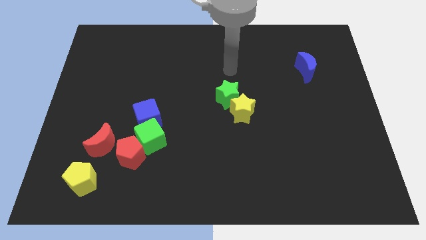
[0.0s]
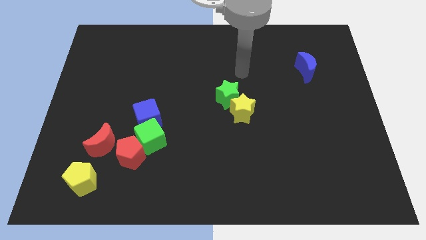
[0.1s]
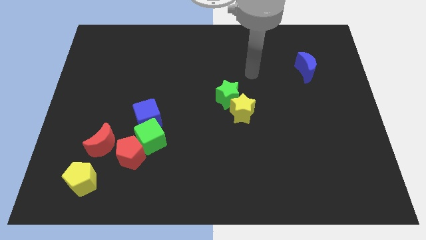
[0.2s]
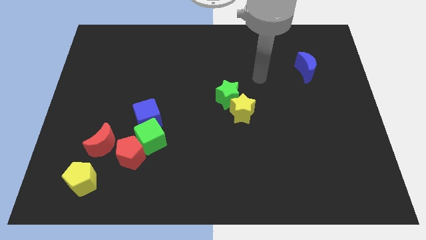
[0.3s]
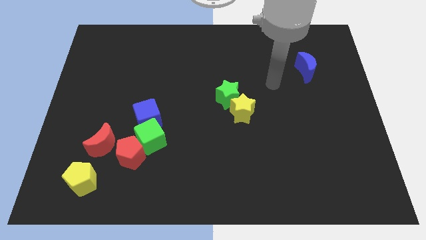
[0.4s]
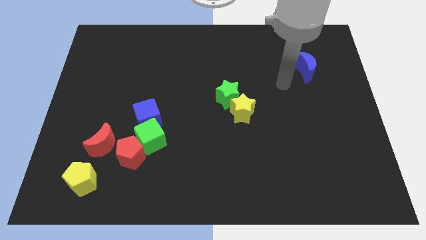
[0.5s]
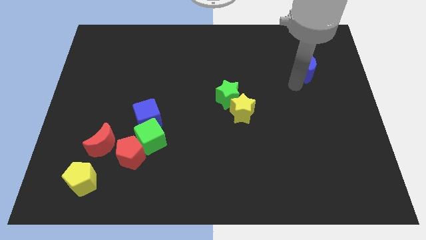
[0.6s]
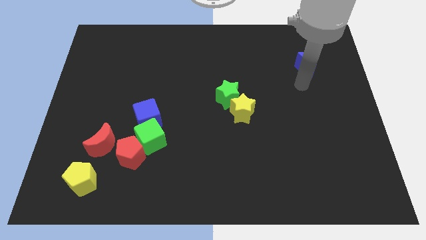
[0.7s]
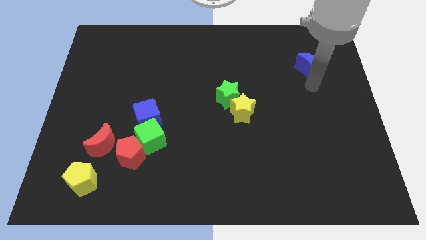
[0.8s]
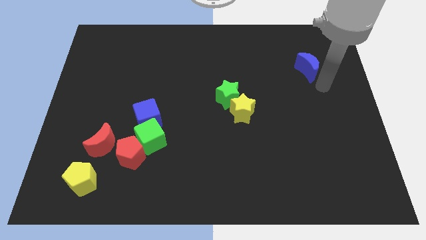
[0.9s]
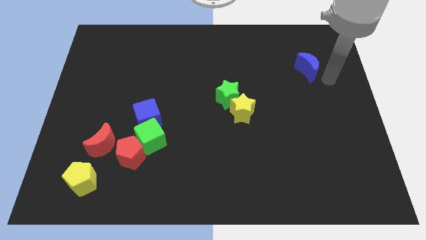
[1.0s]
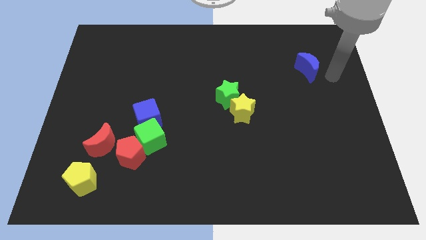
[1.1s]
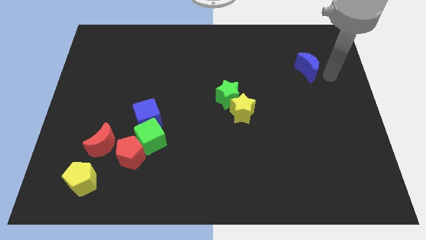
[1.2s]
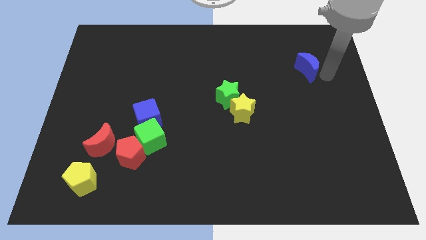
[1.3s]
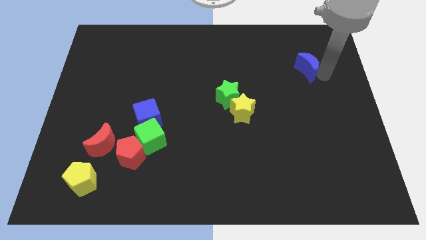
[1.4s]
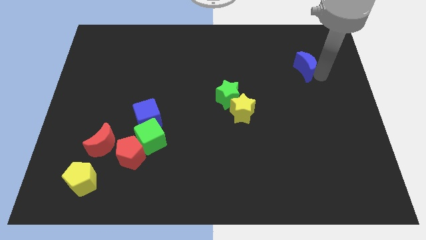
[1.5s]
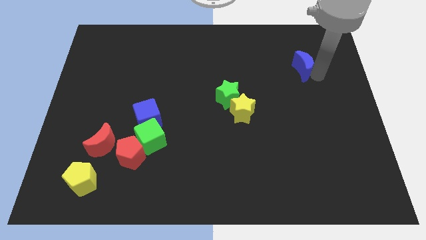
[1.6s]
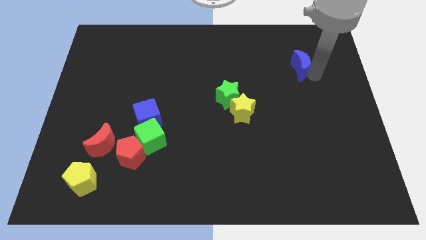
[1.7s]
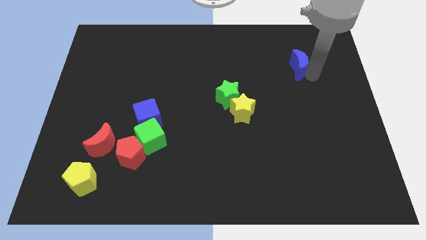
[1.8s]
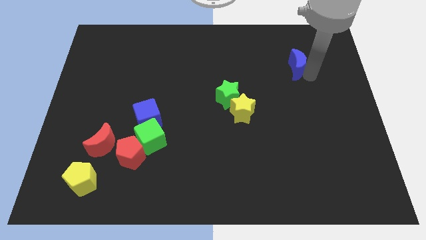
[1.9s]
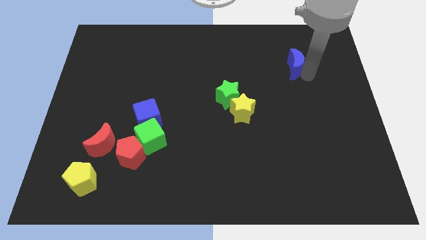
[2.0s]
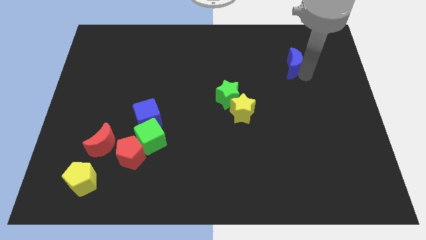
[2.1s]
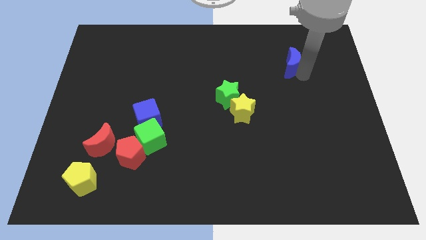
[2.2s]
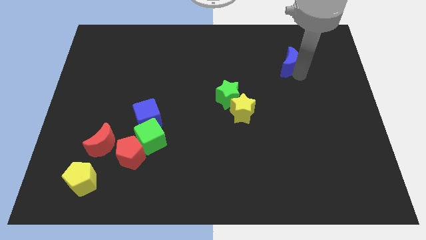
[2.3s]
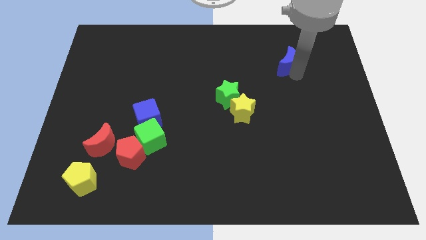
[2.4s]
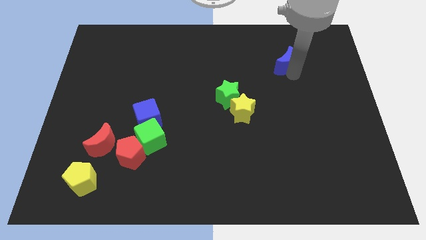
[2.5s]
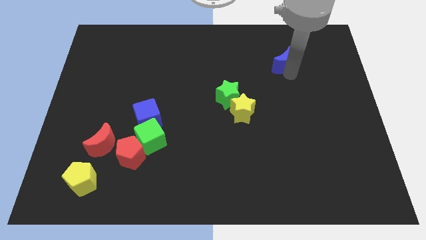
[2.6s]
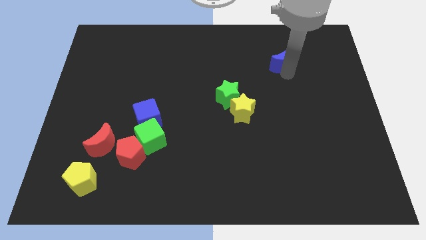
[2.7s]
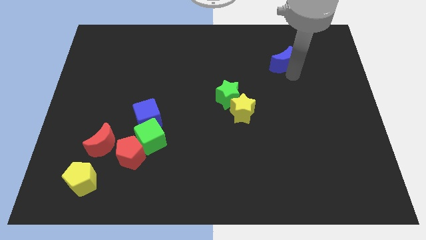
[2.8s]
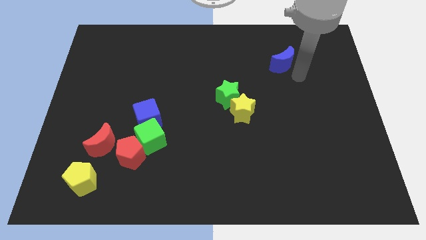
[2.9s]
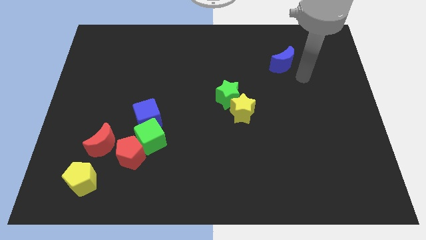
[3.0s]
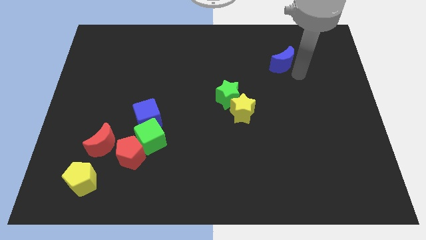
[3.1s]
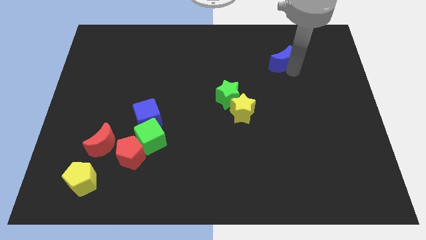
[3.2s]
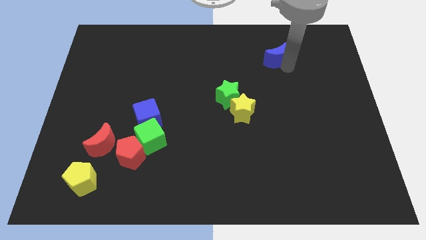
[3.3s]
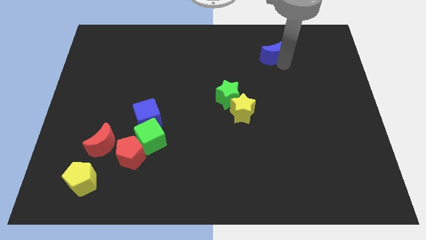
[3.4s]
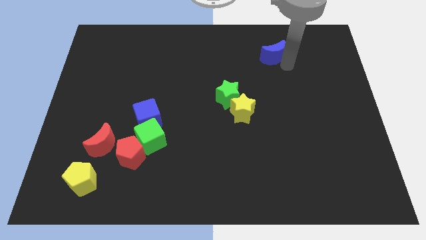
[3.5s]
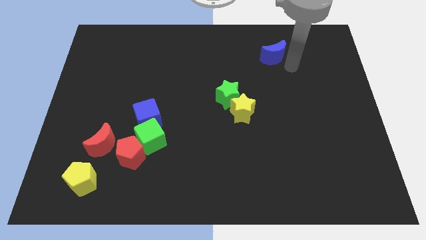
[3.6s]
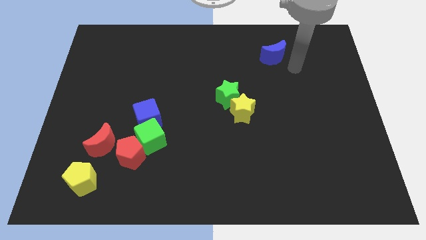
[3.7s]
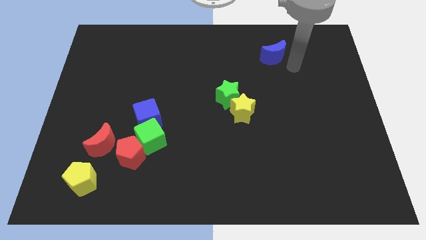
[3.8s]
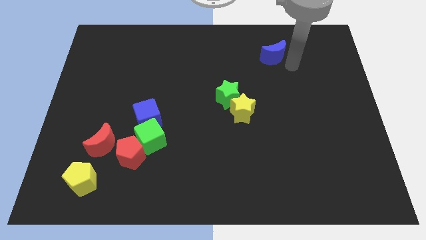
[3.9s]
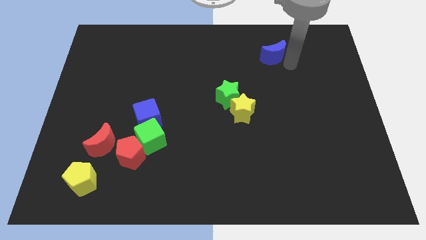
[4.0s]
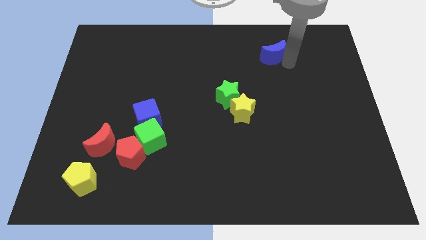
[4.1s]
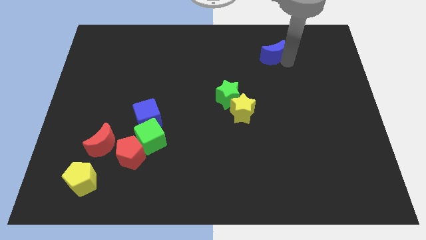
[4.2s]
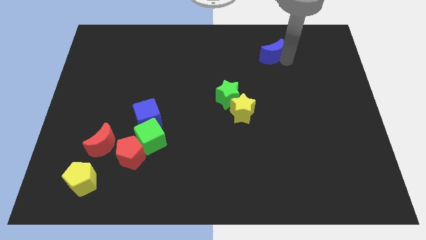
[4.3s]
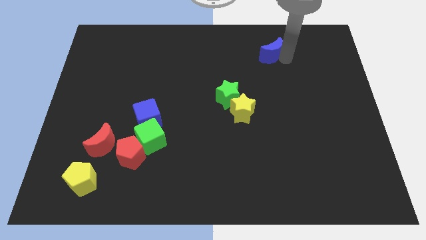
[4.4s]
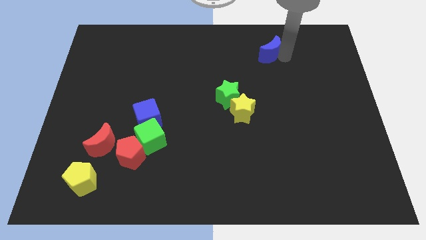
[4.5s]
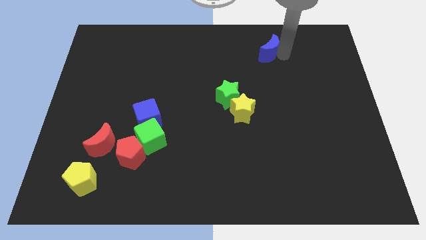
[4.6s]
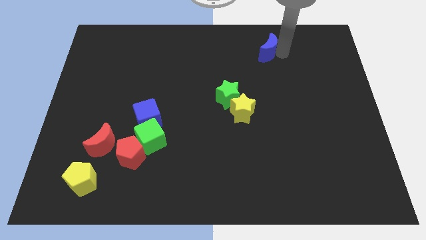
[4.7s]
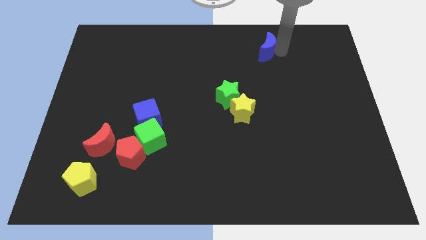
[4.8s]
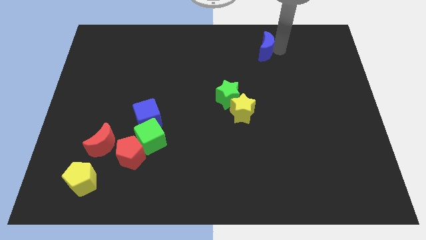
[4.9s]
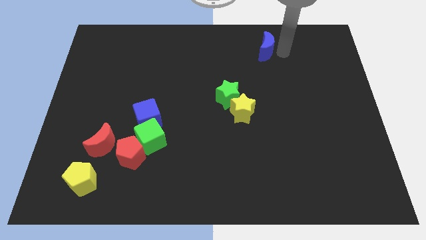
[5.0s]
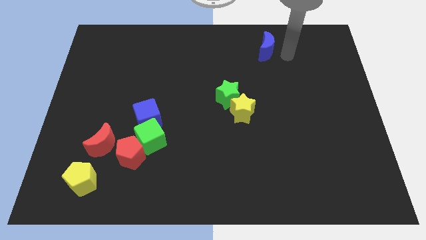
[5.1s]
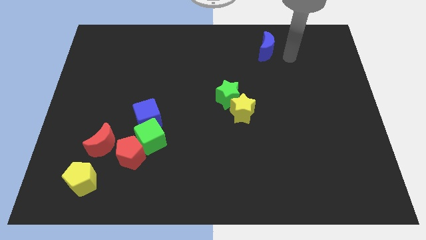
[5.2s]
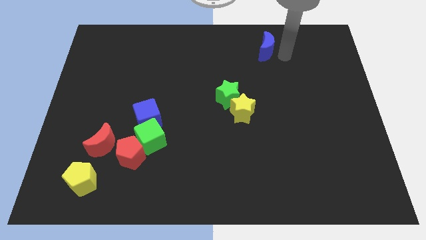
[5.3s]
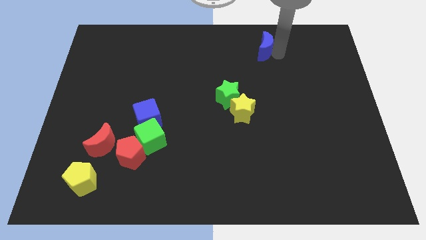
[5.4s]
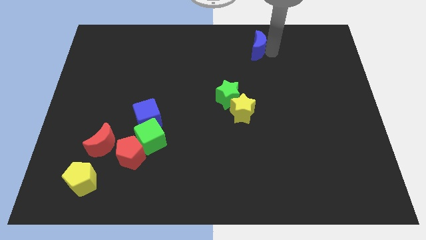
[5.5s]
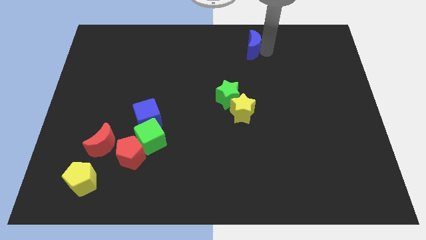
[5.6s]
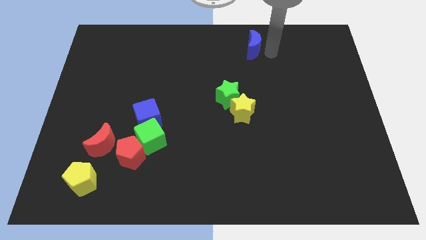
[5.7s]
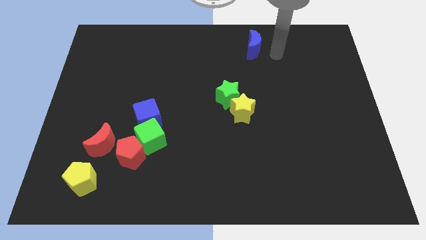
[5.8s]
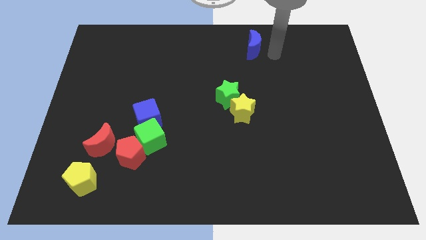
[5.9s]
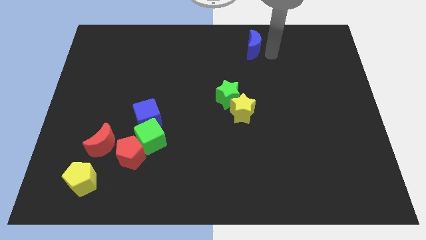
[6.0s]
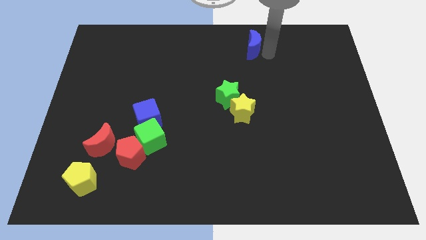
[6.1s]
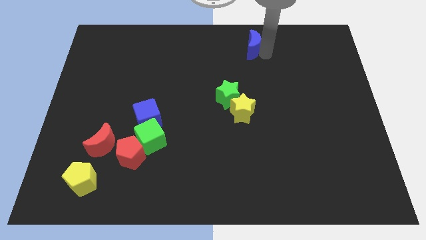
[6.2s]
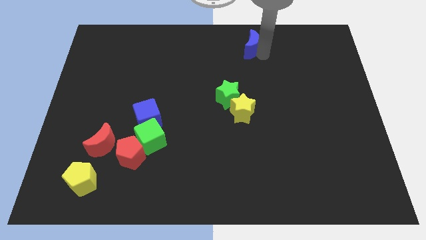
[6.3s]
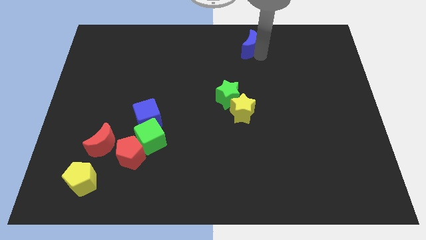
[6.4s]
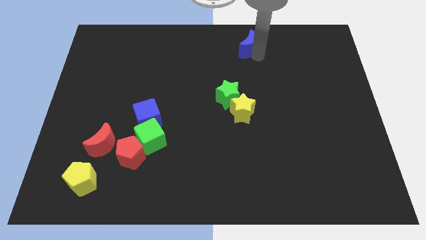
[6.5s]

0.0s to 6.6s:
move the blue moon to the top
